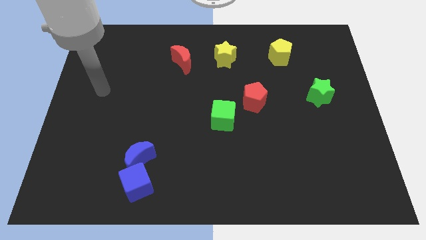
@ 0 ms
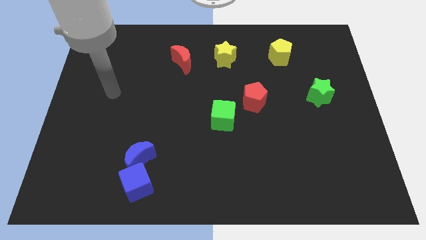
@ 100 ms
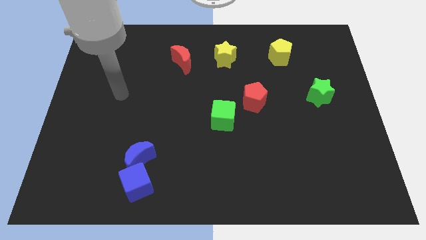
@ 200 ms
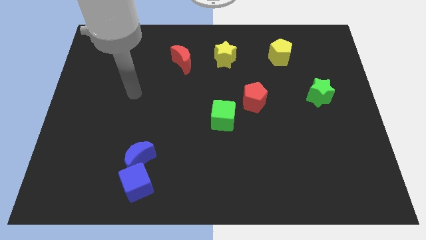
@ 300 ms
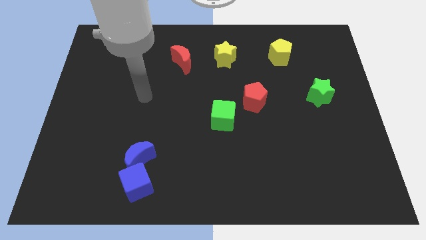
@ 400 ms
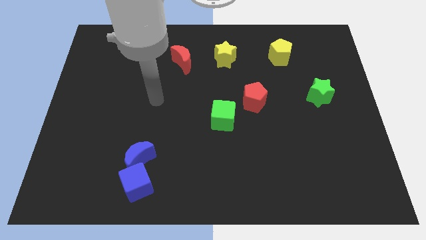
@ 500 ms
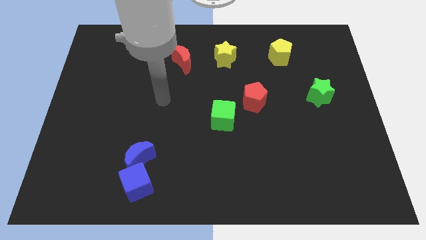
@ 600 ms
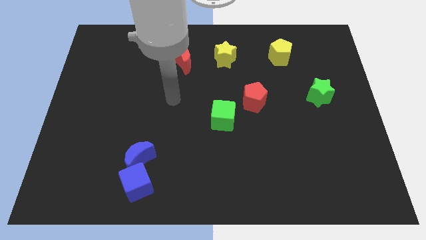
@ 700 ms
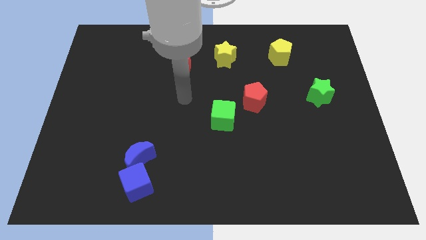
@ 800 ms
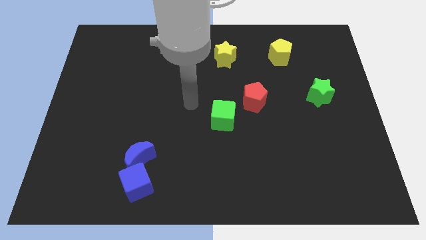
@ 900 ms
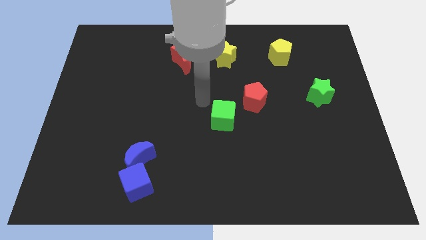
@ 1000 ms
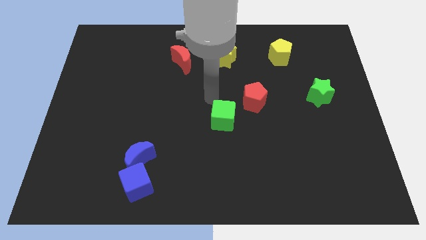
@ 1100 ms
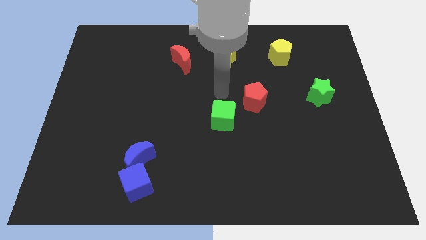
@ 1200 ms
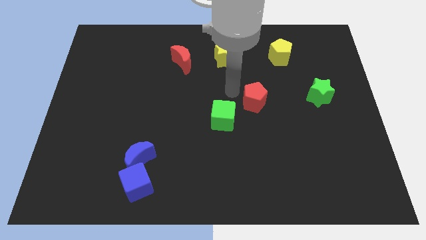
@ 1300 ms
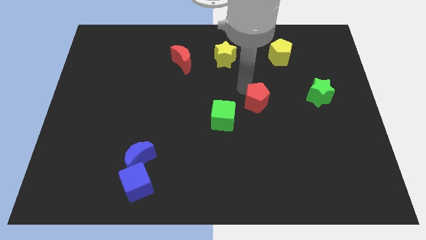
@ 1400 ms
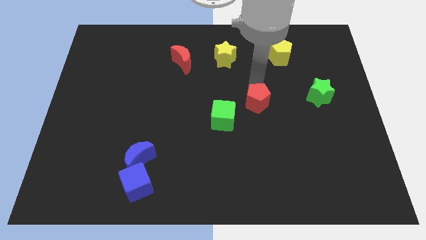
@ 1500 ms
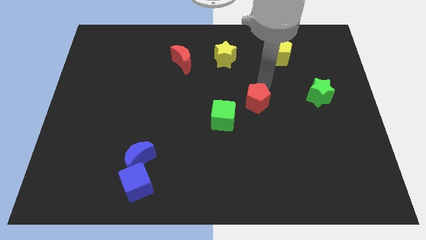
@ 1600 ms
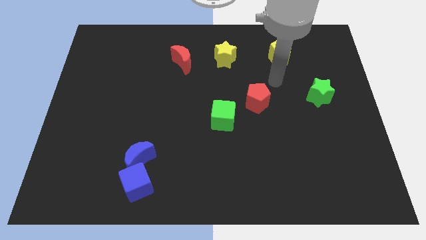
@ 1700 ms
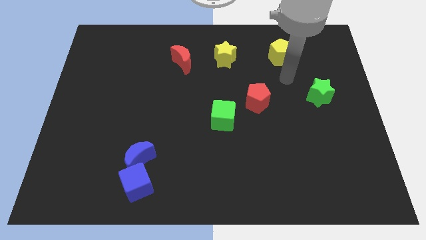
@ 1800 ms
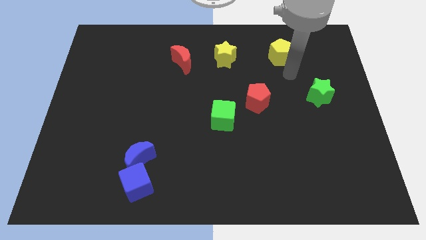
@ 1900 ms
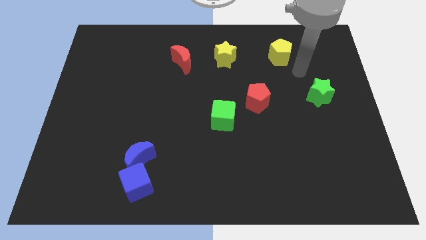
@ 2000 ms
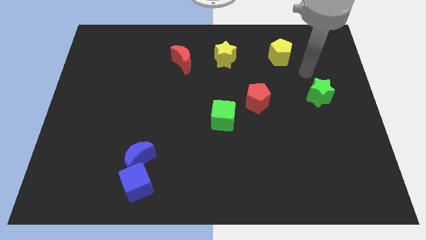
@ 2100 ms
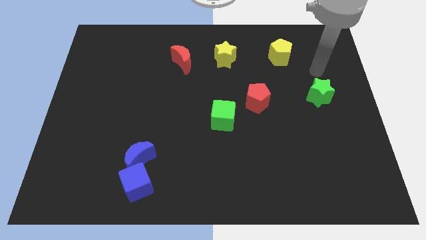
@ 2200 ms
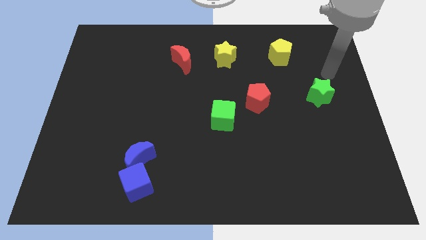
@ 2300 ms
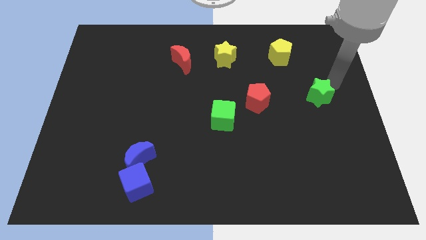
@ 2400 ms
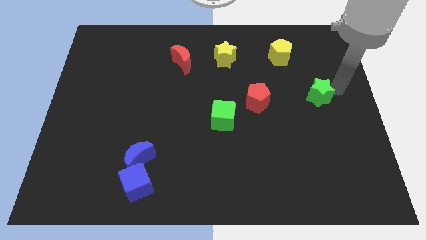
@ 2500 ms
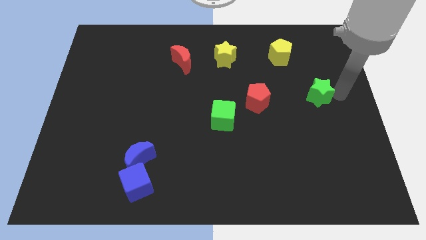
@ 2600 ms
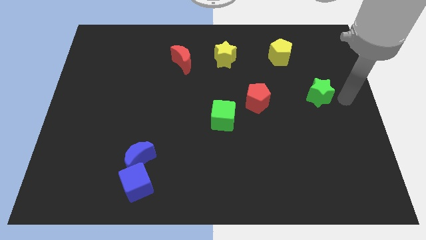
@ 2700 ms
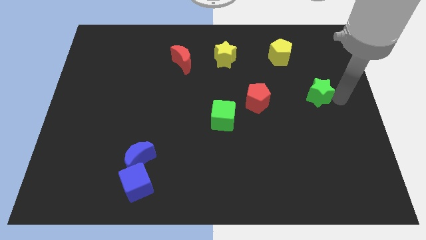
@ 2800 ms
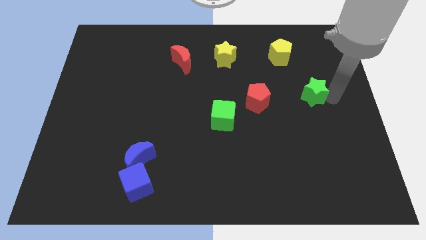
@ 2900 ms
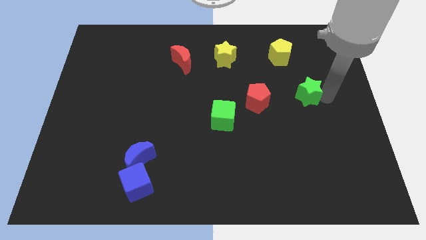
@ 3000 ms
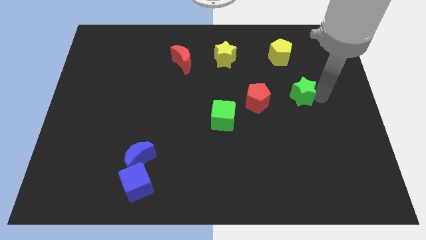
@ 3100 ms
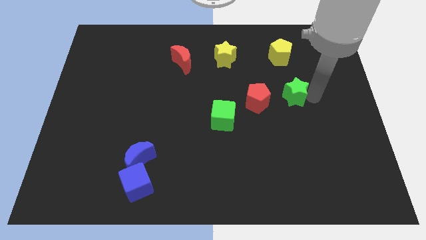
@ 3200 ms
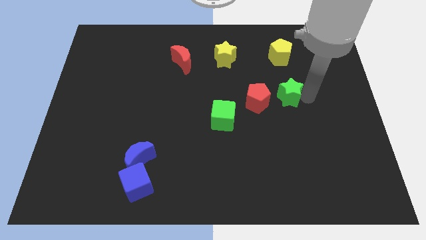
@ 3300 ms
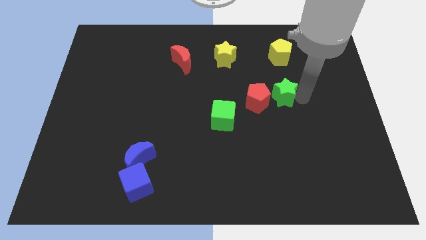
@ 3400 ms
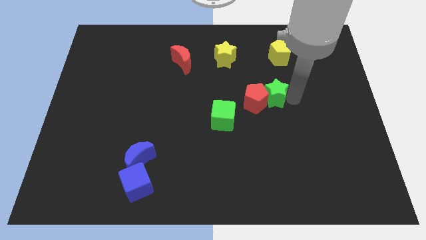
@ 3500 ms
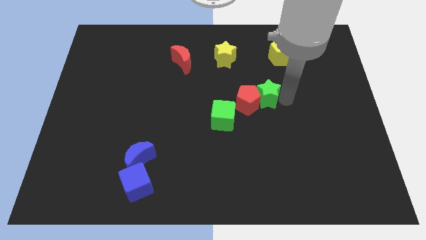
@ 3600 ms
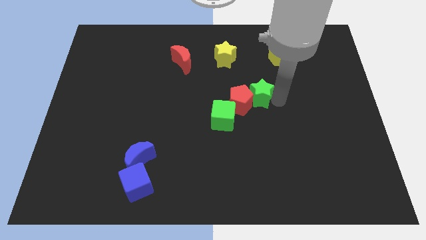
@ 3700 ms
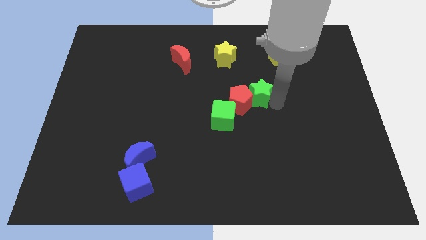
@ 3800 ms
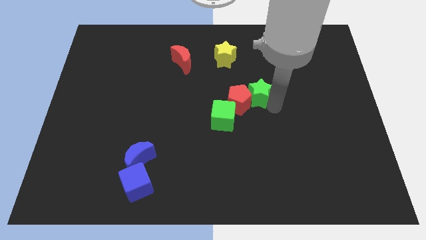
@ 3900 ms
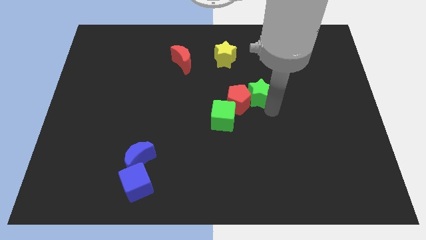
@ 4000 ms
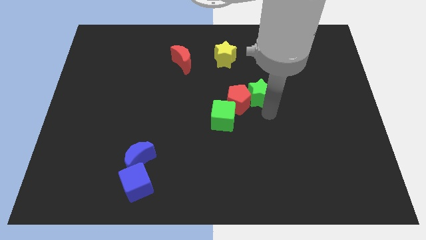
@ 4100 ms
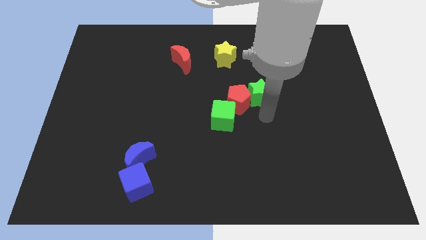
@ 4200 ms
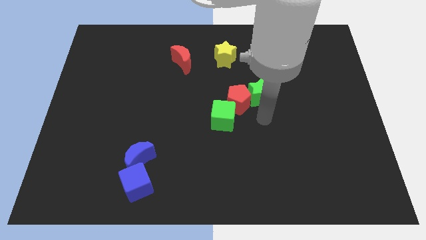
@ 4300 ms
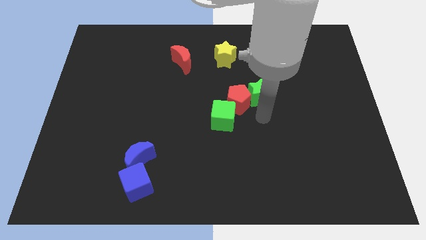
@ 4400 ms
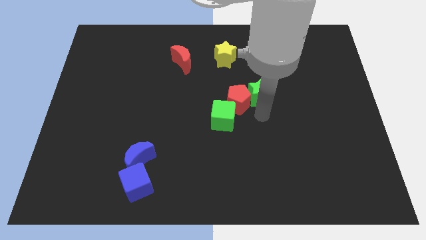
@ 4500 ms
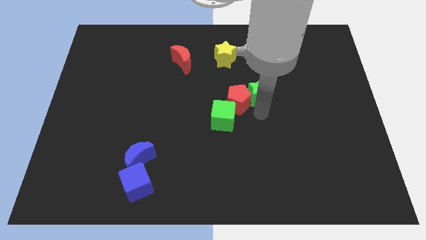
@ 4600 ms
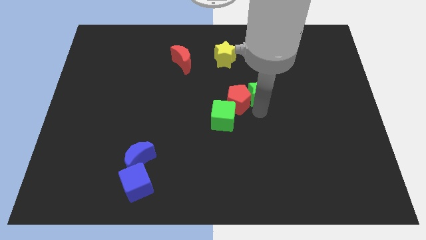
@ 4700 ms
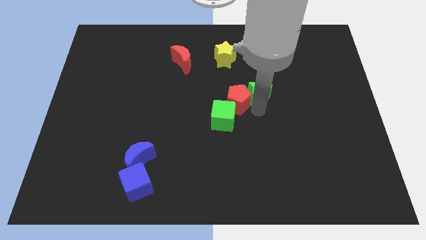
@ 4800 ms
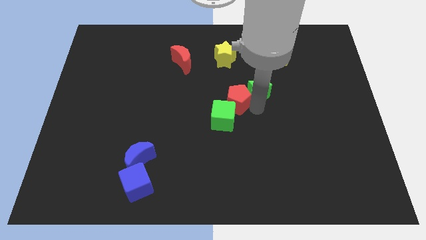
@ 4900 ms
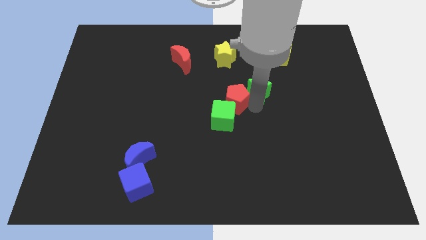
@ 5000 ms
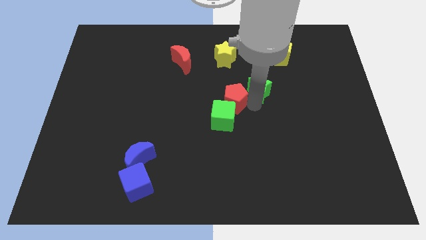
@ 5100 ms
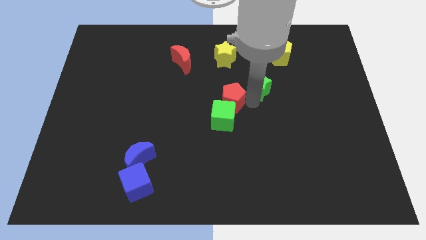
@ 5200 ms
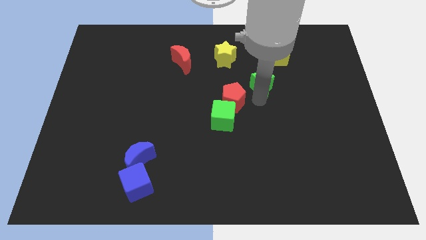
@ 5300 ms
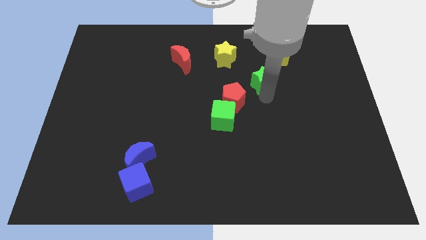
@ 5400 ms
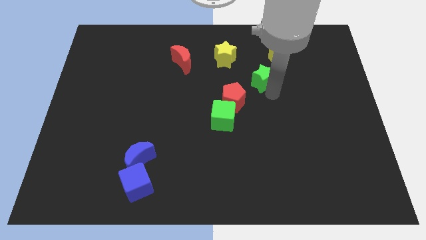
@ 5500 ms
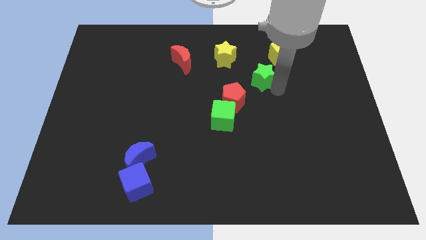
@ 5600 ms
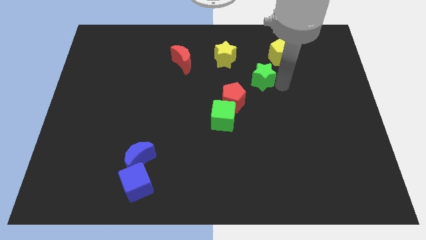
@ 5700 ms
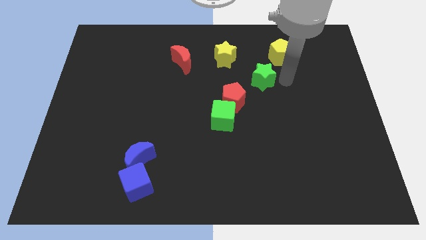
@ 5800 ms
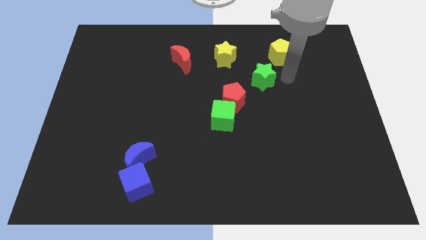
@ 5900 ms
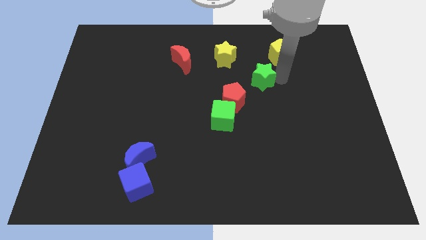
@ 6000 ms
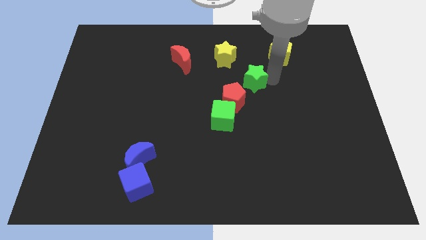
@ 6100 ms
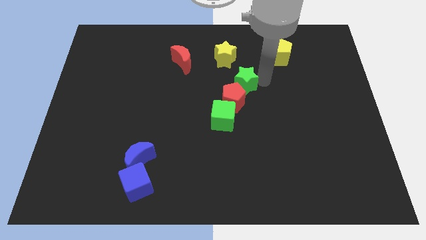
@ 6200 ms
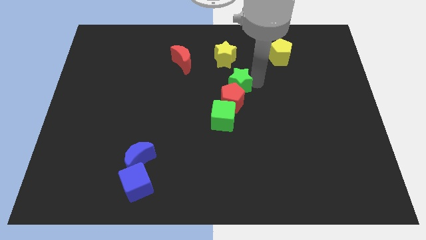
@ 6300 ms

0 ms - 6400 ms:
move the green star to the top of the green cube

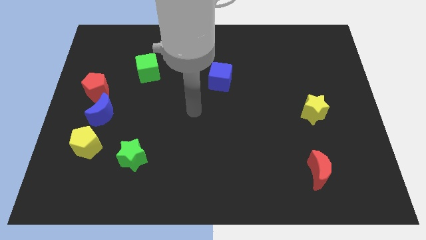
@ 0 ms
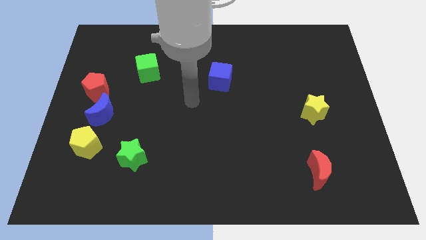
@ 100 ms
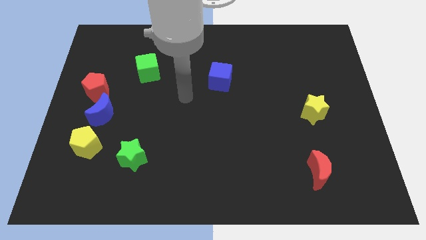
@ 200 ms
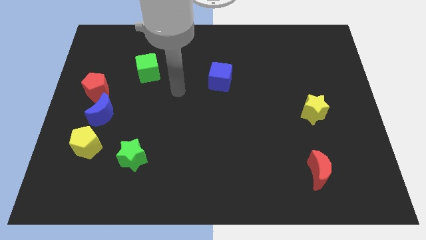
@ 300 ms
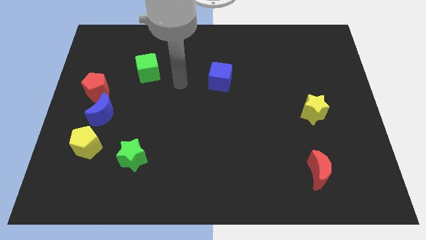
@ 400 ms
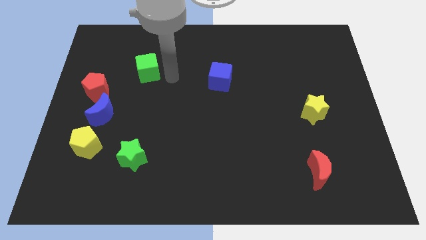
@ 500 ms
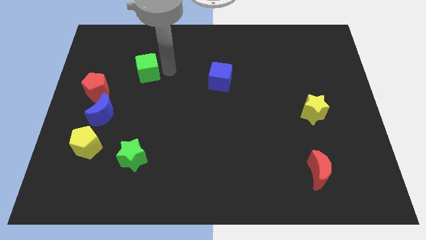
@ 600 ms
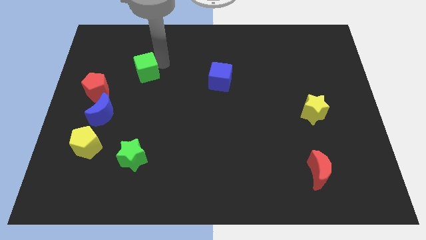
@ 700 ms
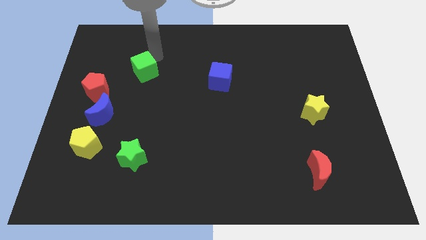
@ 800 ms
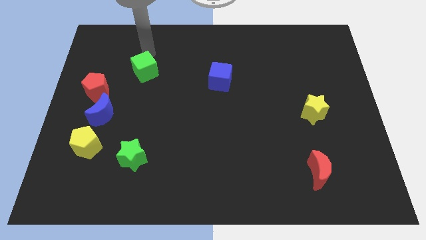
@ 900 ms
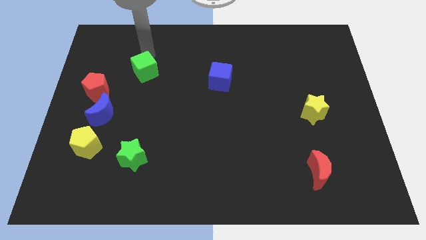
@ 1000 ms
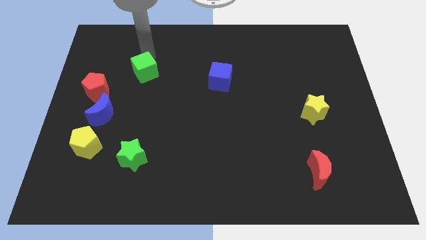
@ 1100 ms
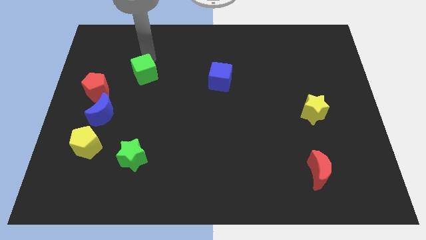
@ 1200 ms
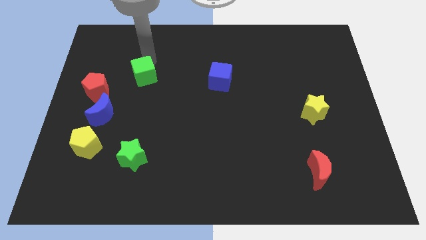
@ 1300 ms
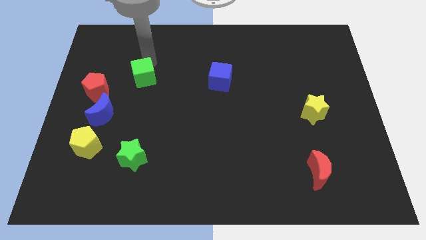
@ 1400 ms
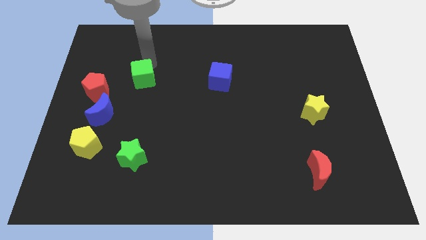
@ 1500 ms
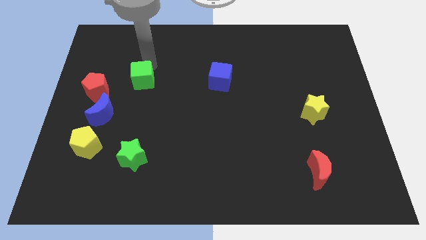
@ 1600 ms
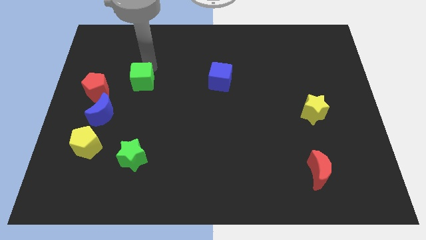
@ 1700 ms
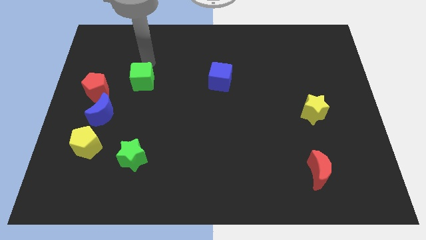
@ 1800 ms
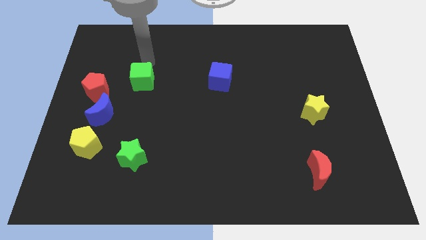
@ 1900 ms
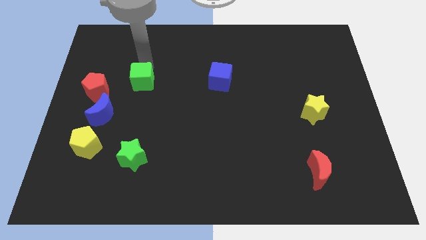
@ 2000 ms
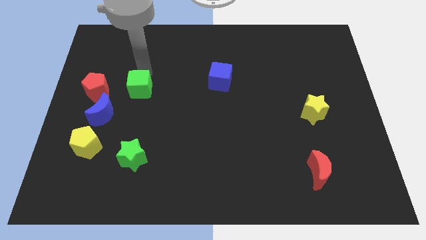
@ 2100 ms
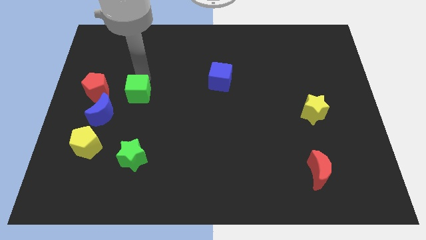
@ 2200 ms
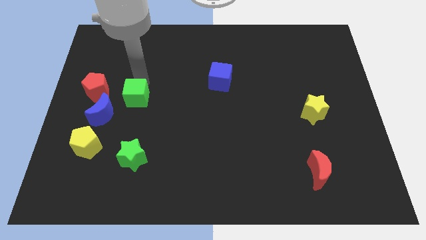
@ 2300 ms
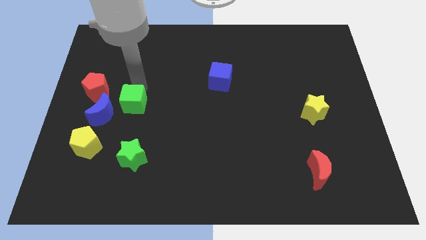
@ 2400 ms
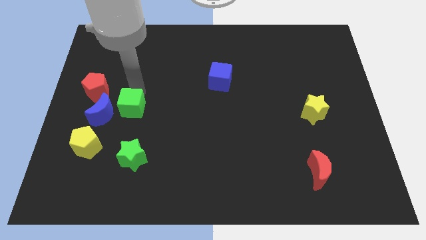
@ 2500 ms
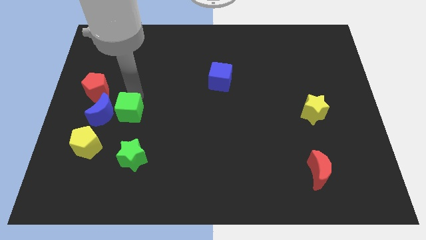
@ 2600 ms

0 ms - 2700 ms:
move the green cube to the top right side of the yellow pentagon
